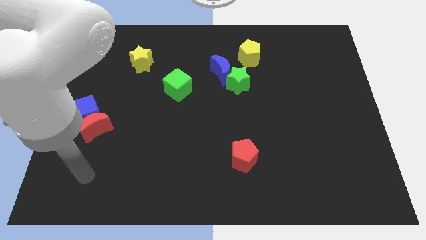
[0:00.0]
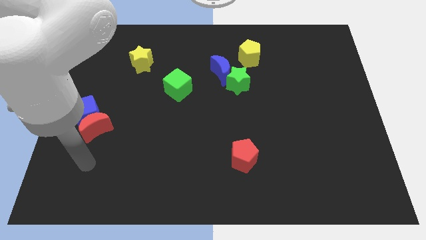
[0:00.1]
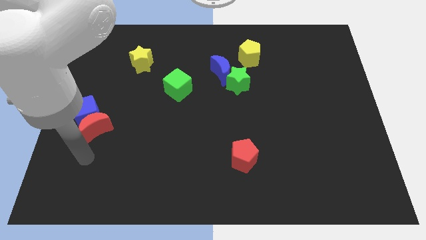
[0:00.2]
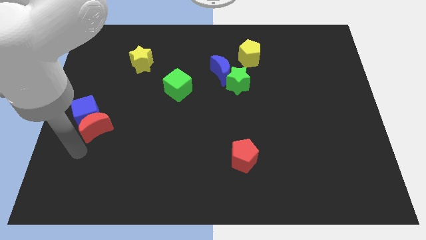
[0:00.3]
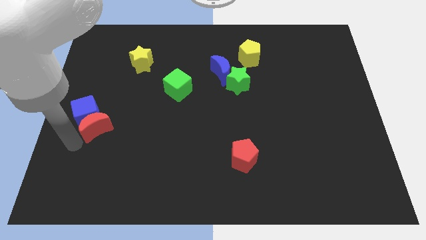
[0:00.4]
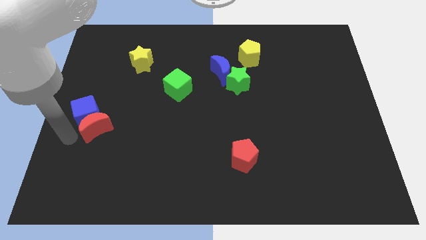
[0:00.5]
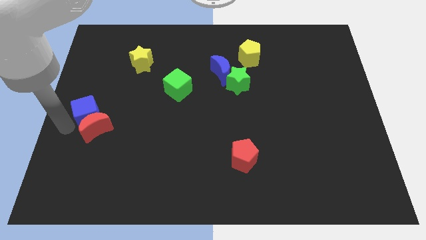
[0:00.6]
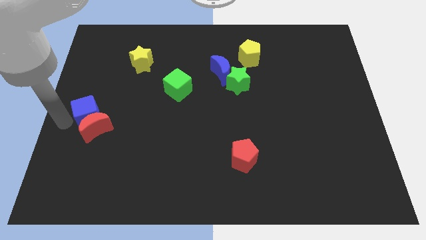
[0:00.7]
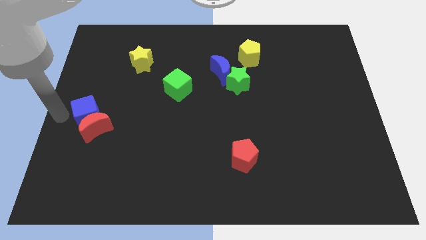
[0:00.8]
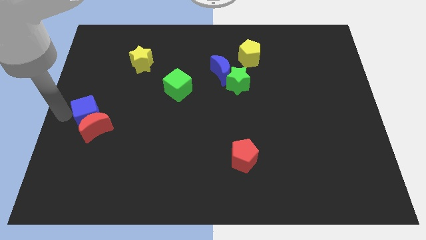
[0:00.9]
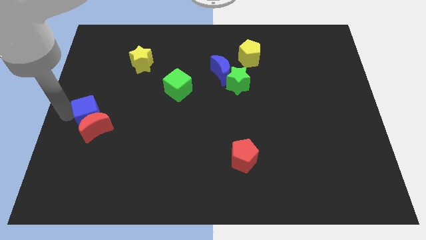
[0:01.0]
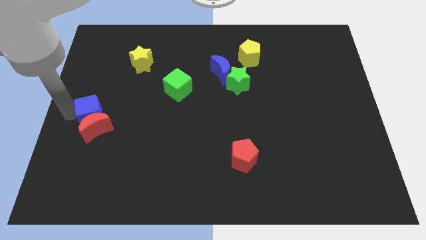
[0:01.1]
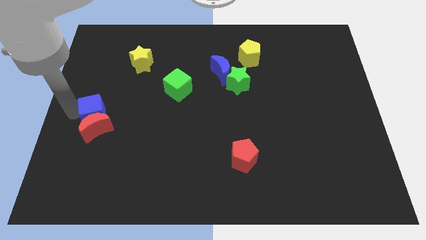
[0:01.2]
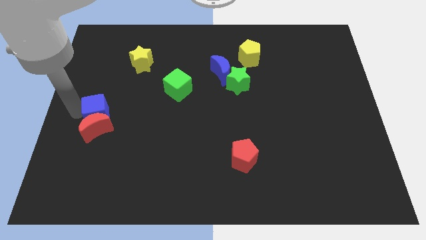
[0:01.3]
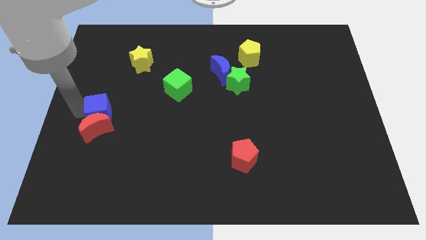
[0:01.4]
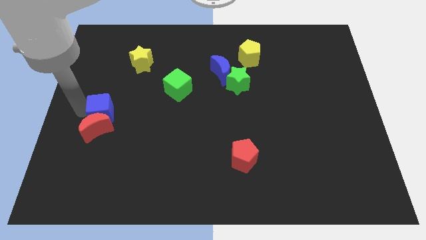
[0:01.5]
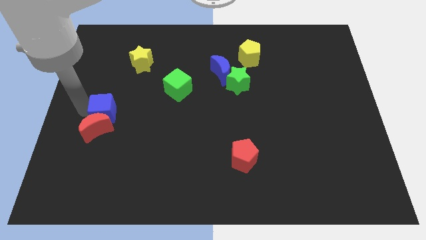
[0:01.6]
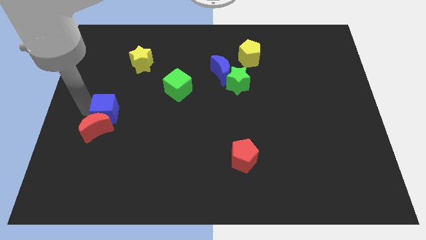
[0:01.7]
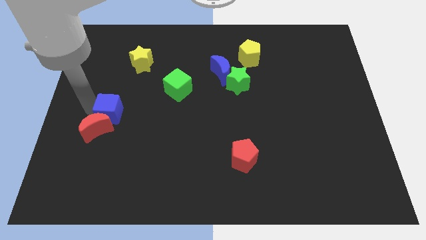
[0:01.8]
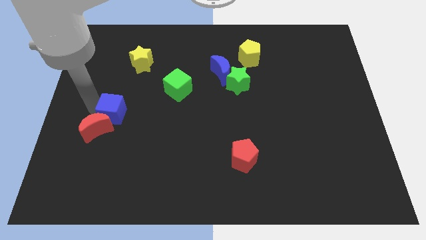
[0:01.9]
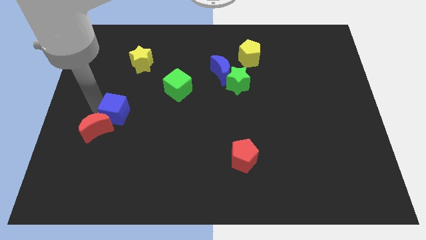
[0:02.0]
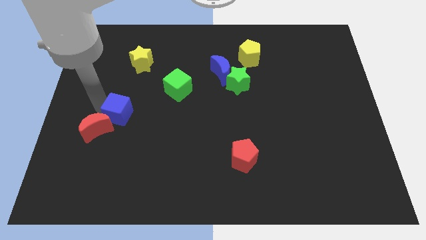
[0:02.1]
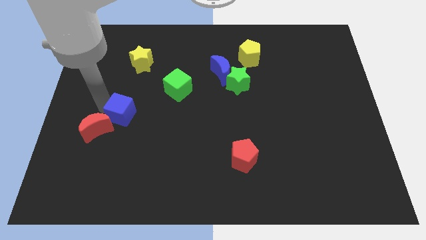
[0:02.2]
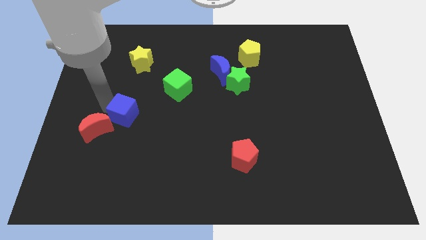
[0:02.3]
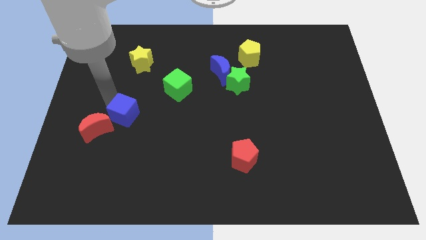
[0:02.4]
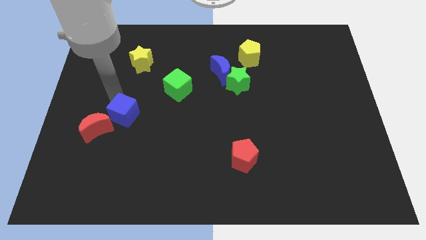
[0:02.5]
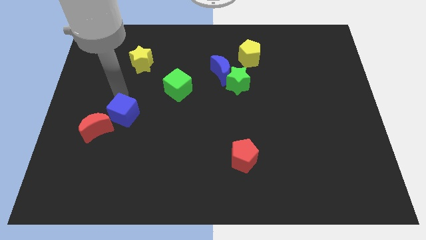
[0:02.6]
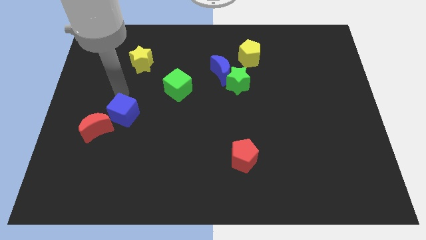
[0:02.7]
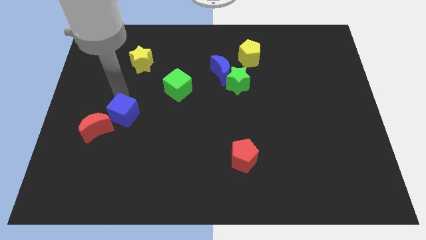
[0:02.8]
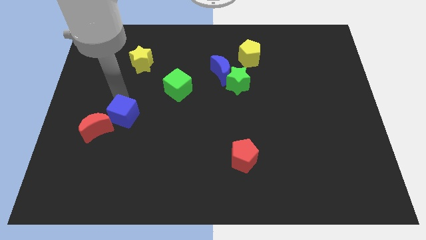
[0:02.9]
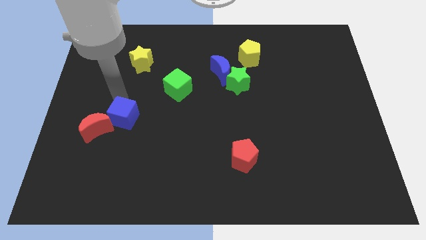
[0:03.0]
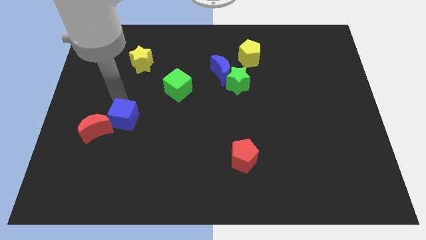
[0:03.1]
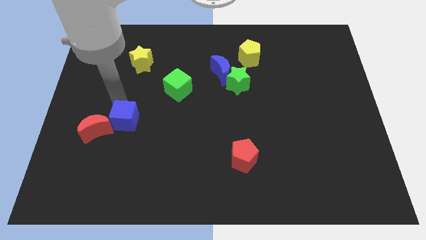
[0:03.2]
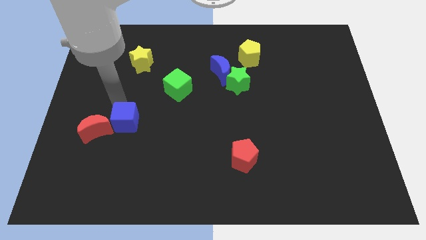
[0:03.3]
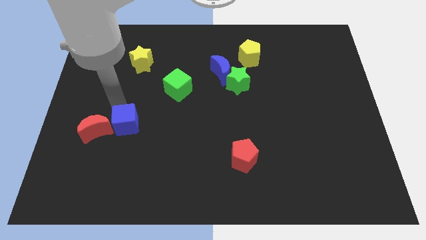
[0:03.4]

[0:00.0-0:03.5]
slightly move the blue cube diagonally downwards and right

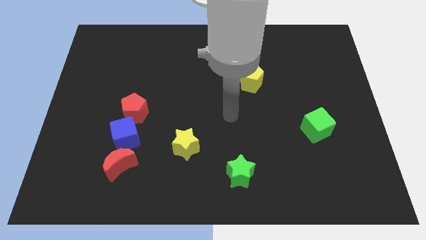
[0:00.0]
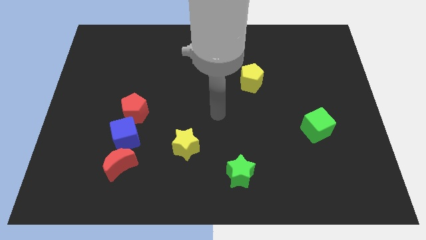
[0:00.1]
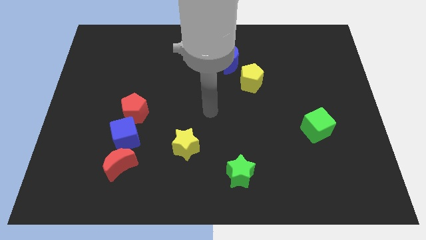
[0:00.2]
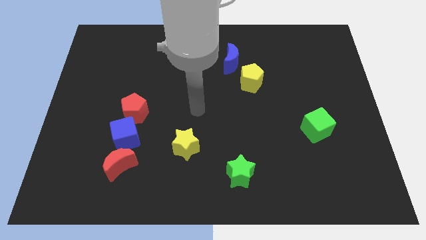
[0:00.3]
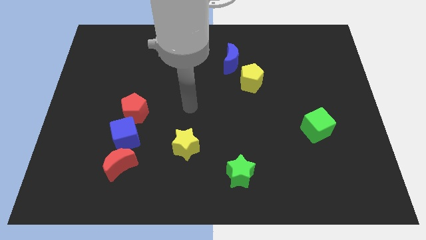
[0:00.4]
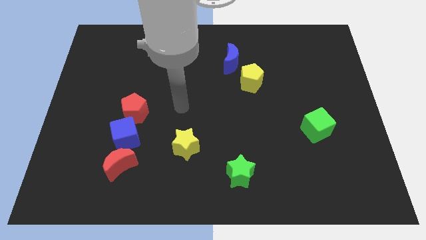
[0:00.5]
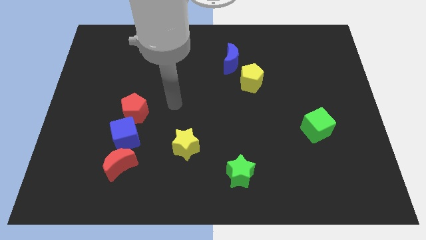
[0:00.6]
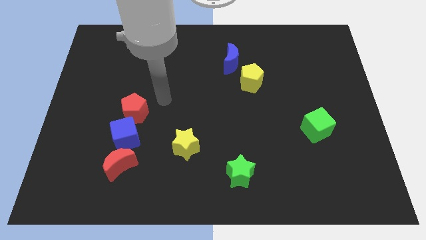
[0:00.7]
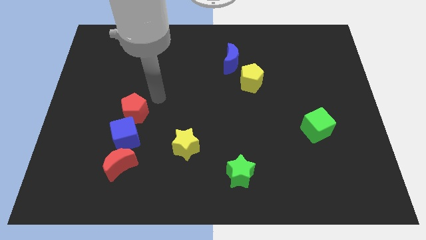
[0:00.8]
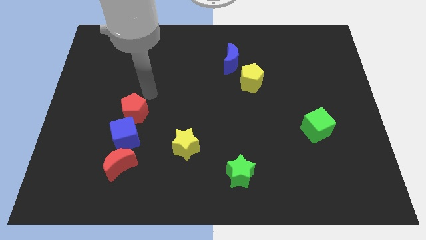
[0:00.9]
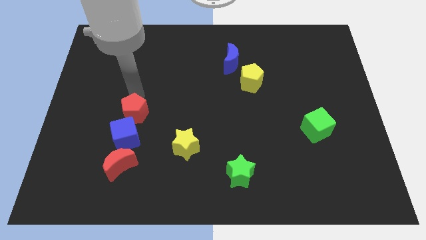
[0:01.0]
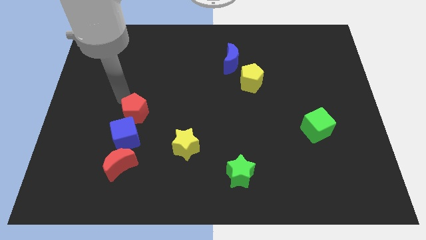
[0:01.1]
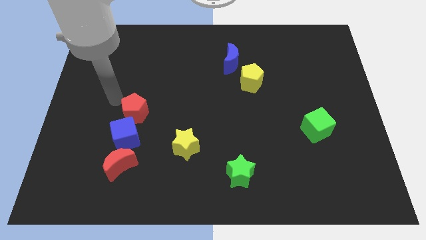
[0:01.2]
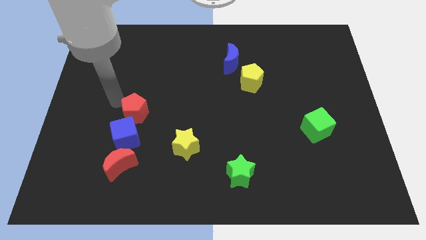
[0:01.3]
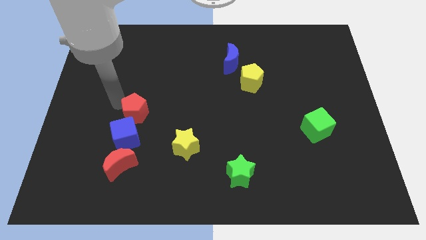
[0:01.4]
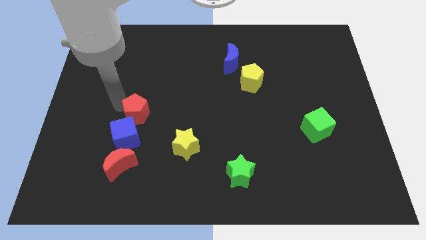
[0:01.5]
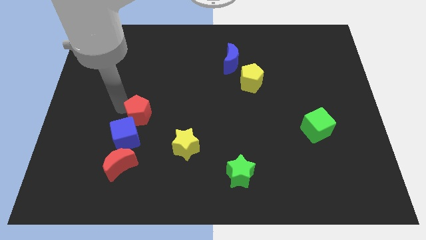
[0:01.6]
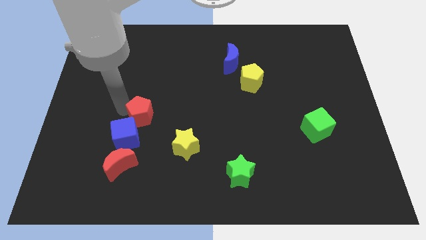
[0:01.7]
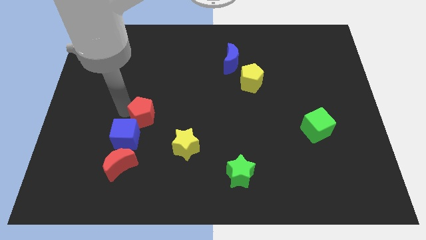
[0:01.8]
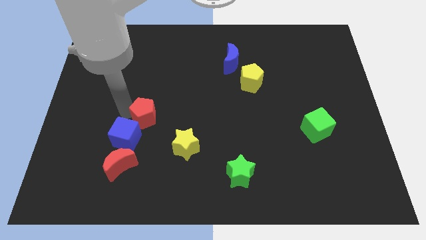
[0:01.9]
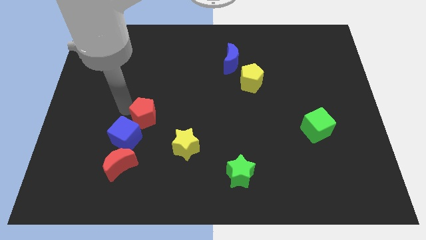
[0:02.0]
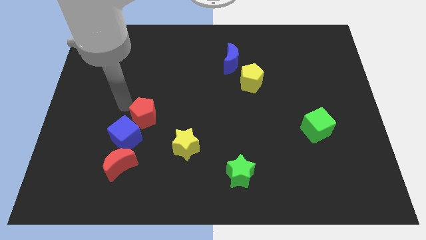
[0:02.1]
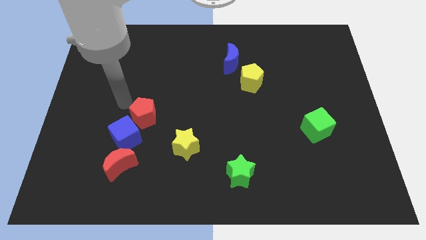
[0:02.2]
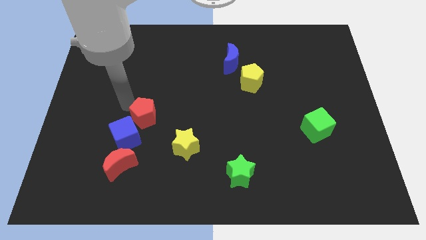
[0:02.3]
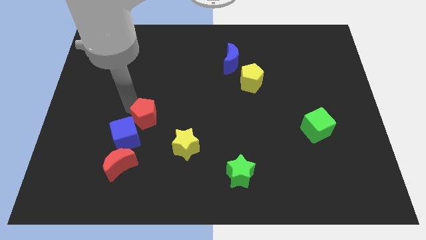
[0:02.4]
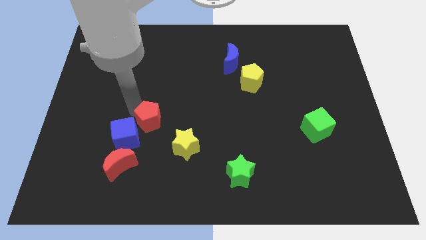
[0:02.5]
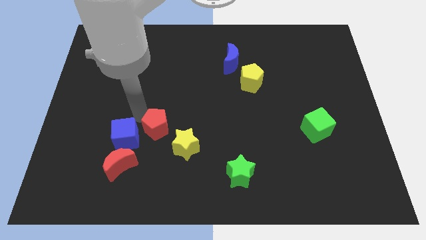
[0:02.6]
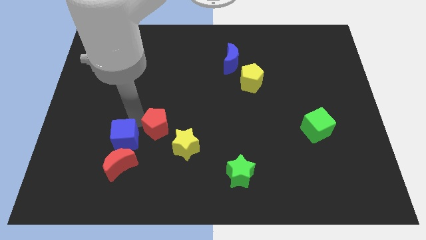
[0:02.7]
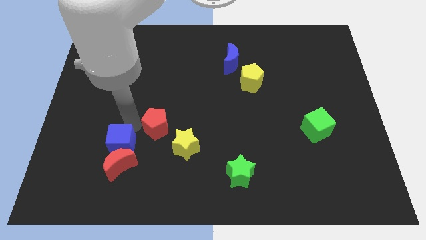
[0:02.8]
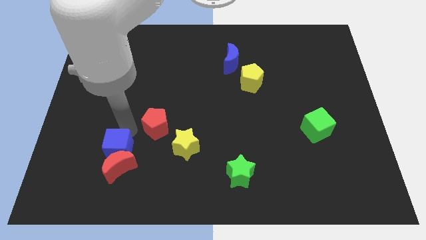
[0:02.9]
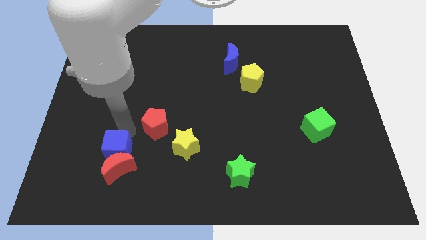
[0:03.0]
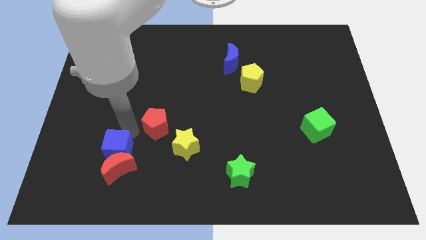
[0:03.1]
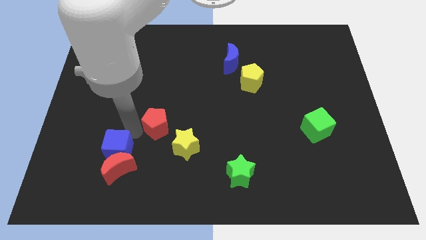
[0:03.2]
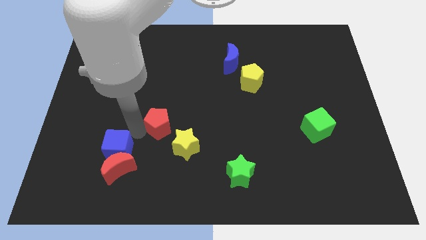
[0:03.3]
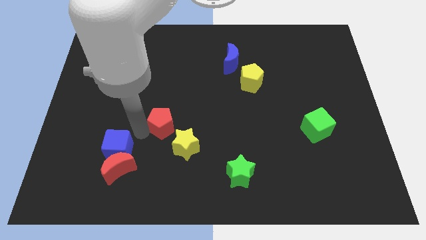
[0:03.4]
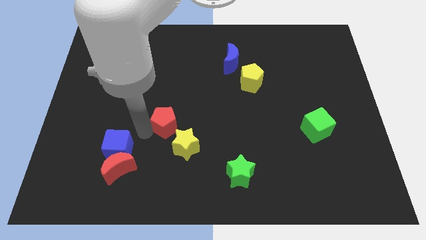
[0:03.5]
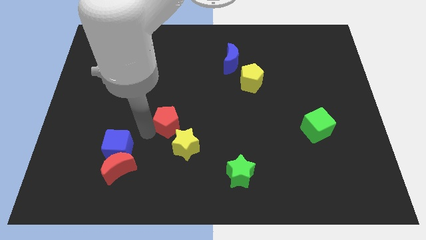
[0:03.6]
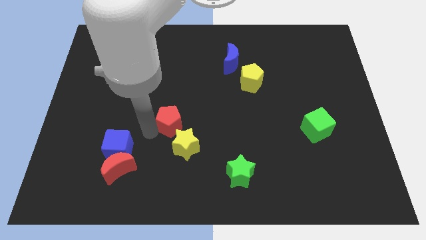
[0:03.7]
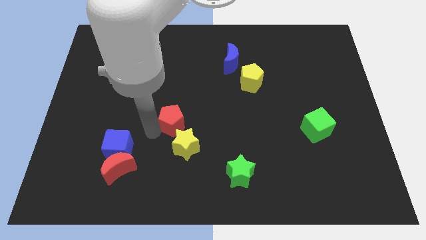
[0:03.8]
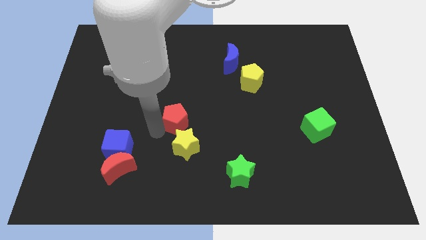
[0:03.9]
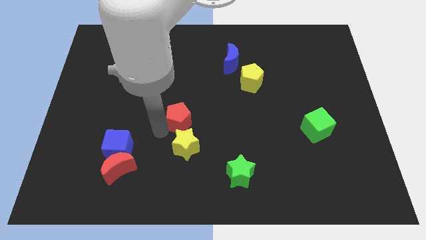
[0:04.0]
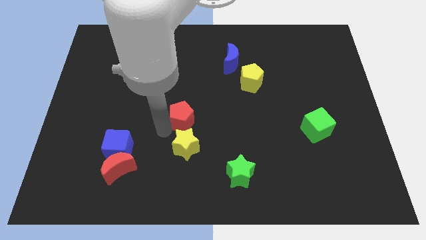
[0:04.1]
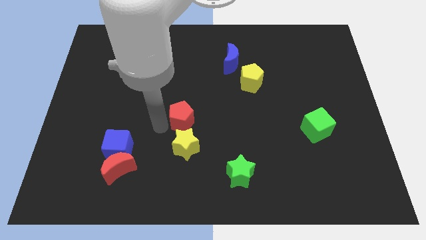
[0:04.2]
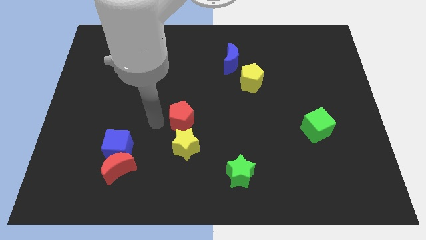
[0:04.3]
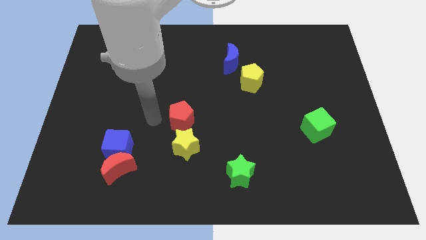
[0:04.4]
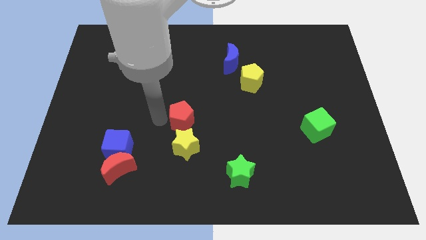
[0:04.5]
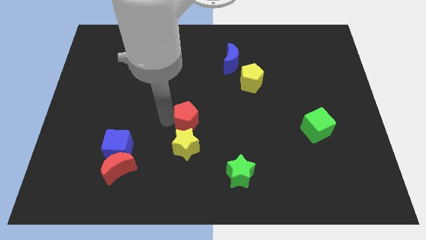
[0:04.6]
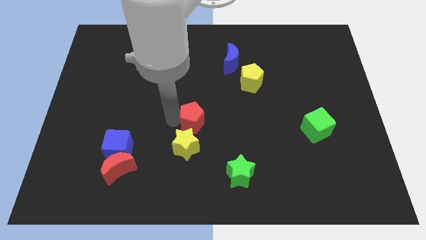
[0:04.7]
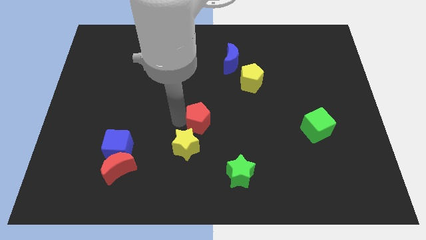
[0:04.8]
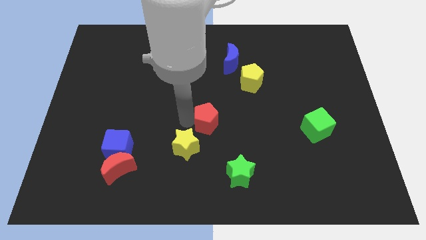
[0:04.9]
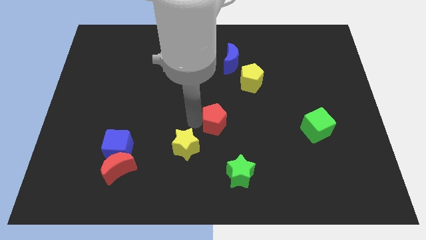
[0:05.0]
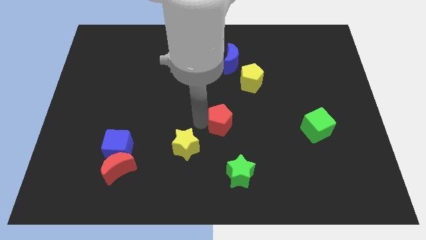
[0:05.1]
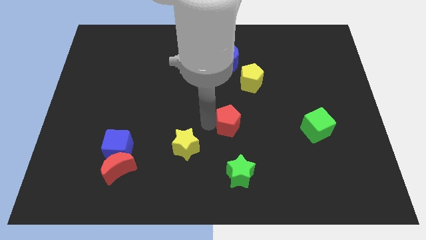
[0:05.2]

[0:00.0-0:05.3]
move the red pentagon to the right
